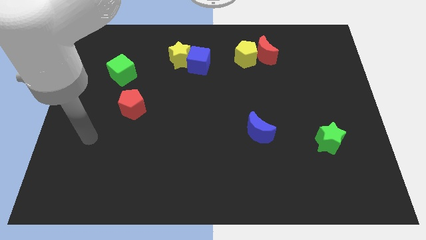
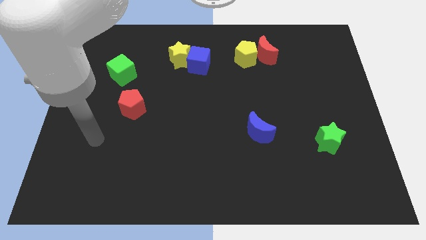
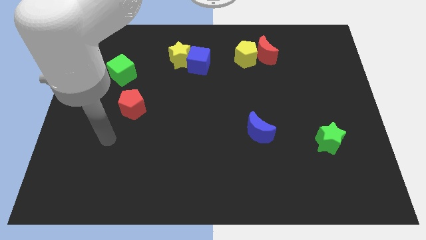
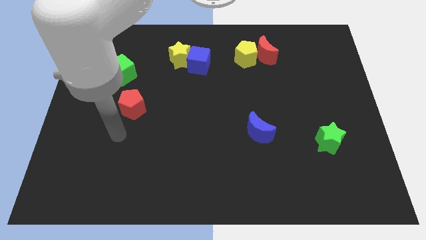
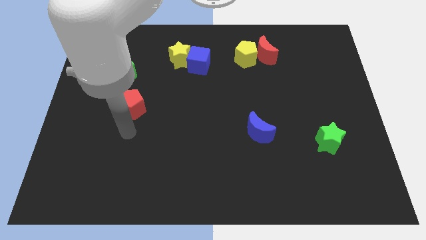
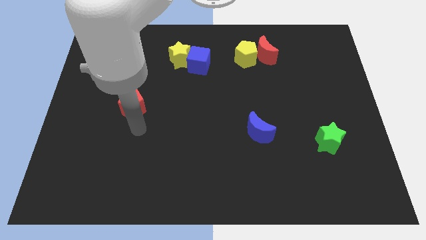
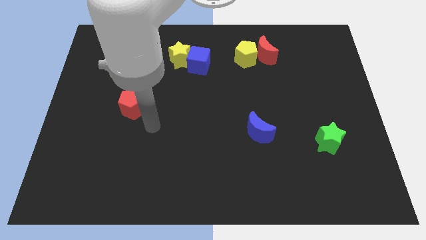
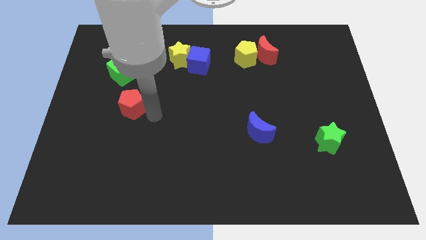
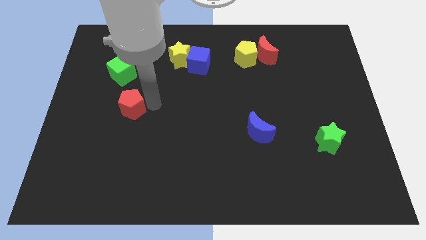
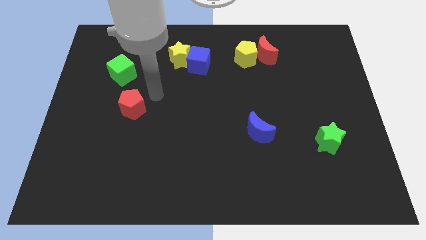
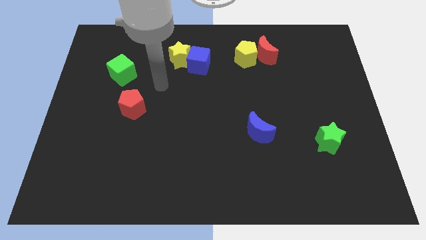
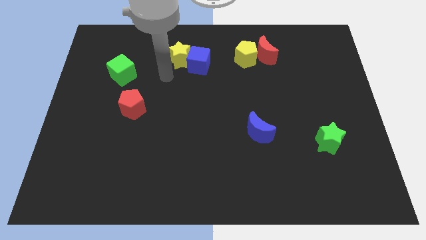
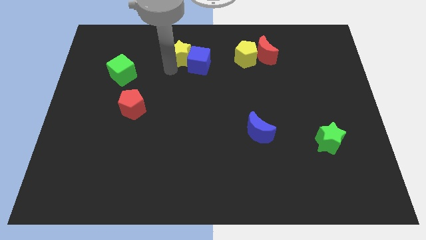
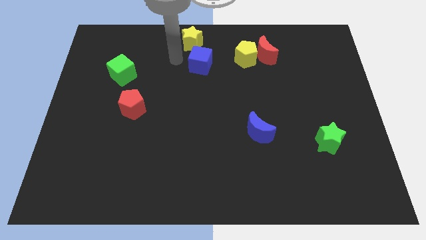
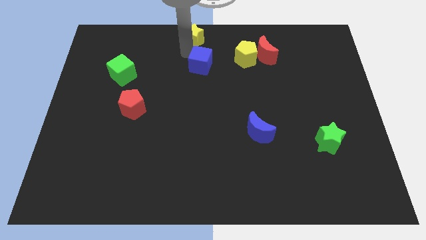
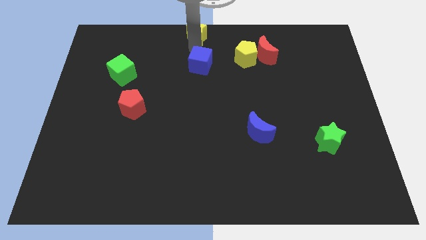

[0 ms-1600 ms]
pull the blue cube apart from the yellow star

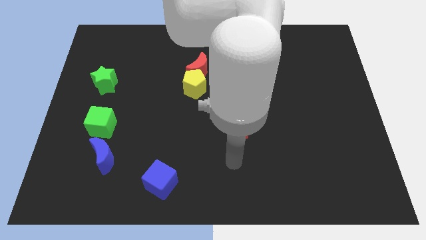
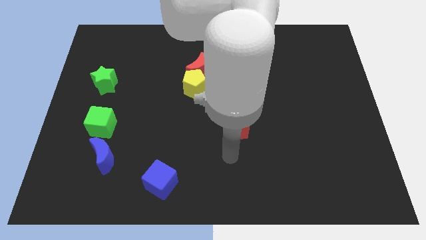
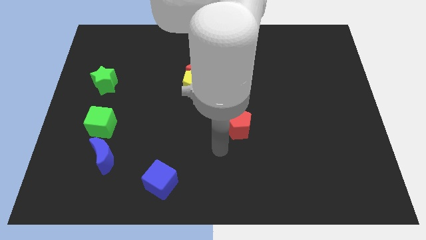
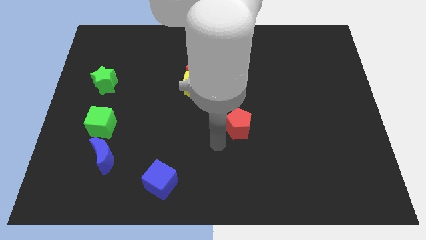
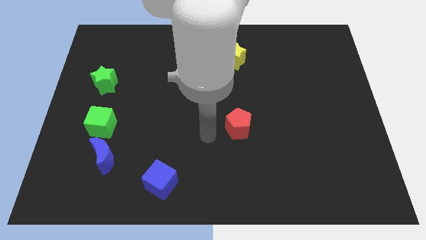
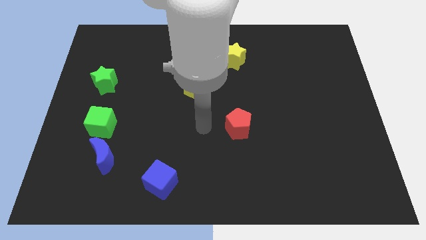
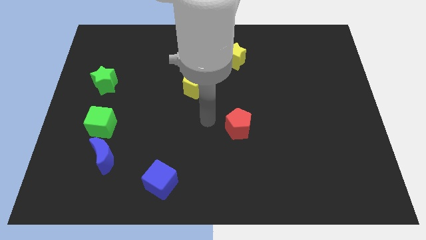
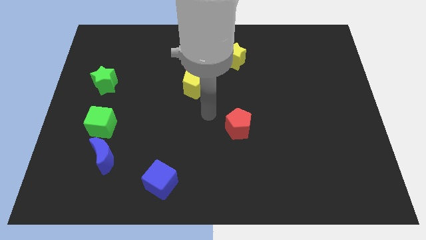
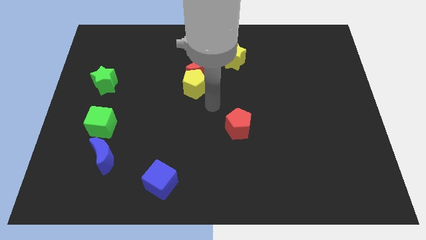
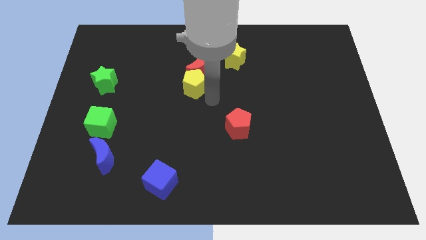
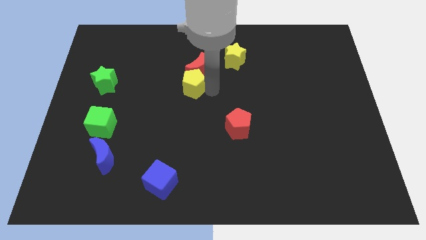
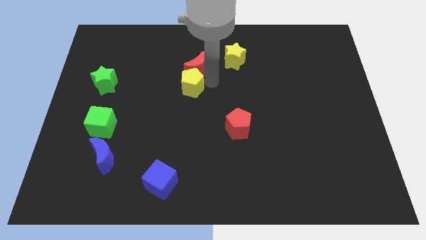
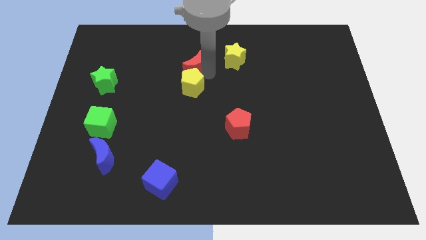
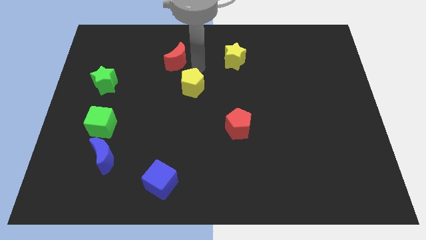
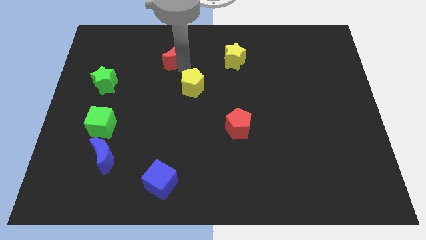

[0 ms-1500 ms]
separate the yellow pentagon from the red moon

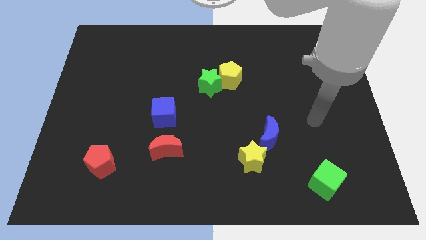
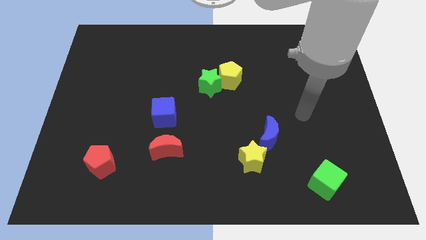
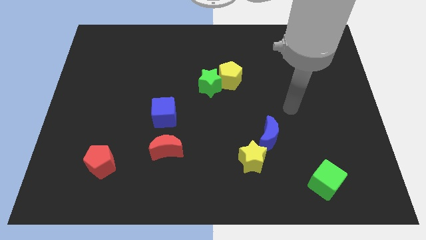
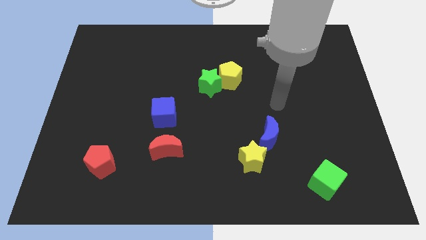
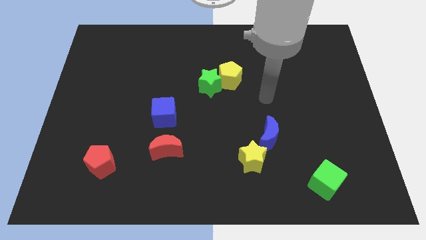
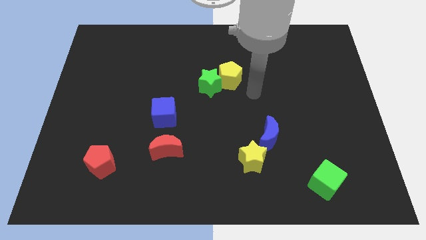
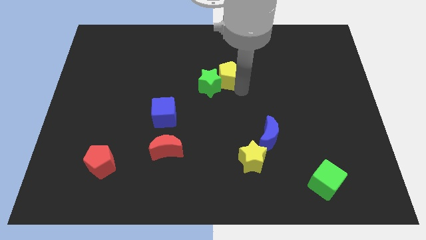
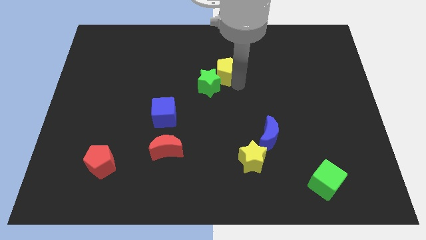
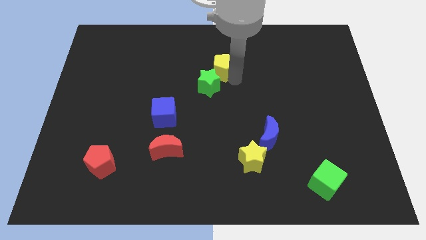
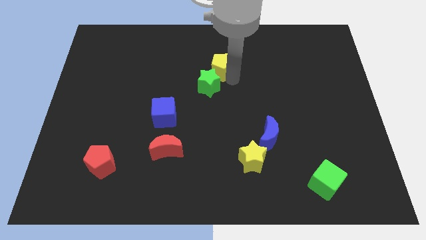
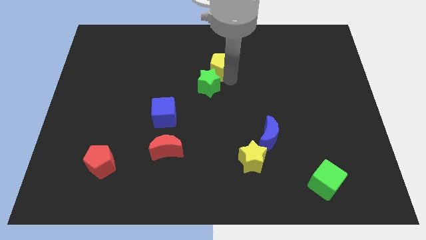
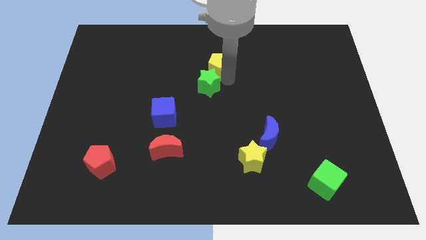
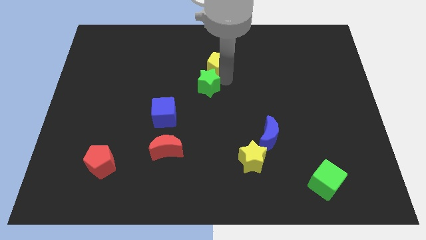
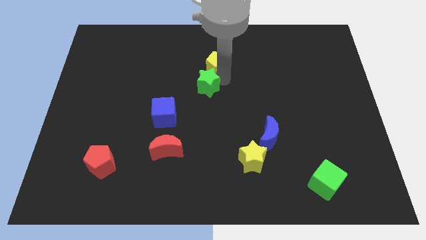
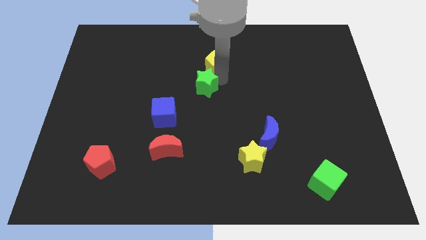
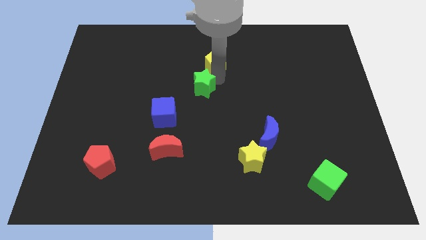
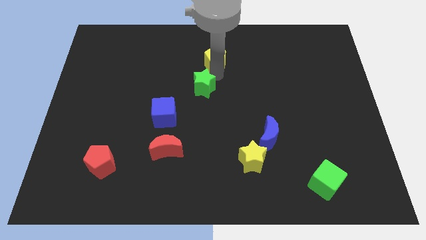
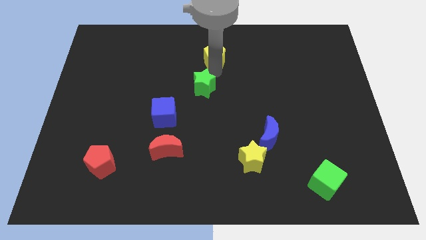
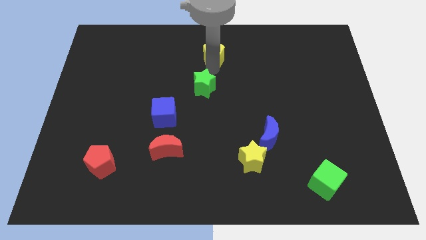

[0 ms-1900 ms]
move the green star away from the yellow pentagon

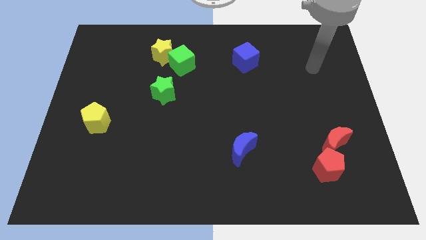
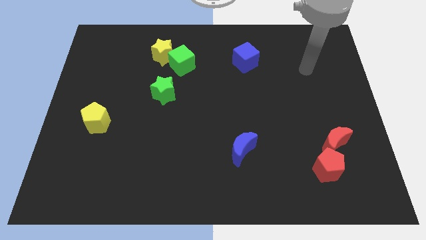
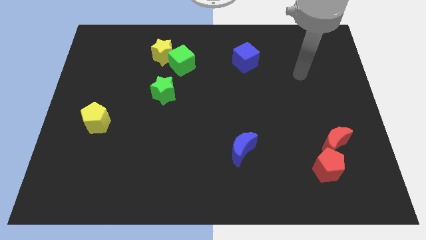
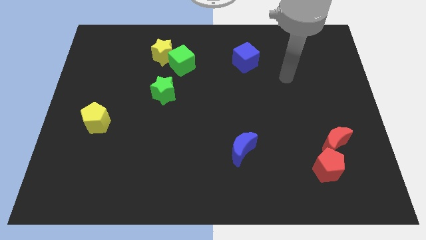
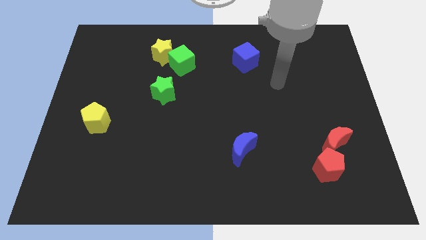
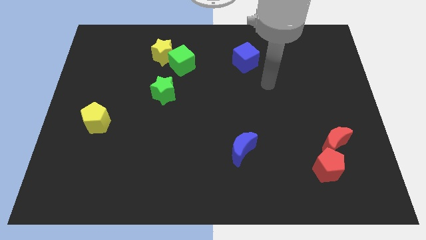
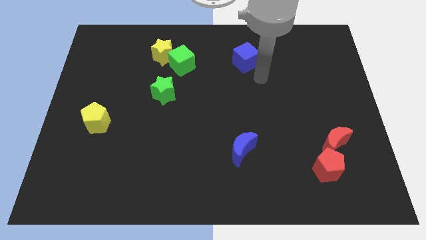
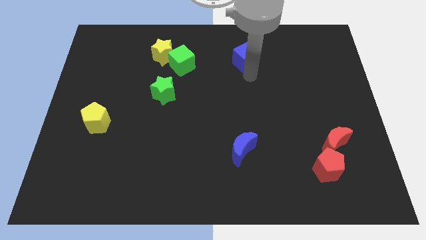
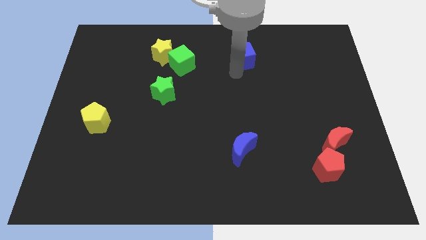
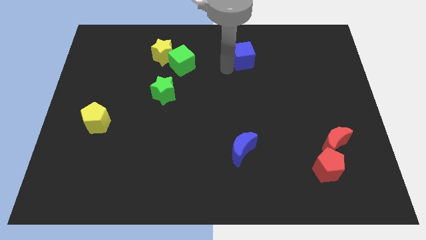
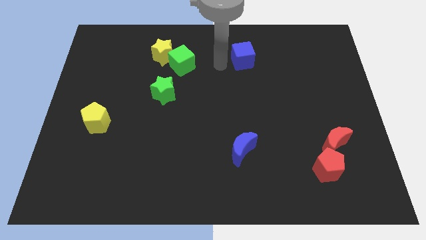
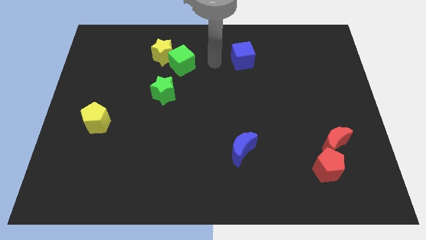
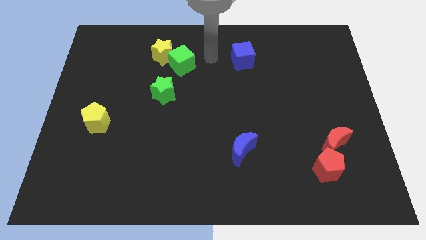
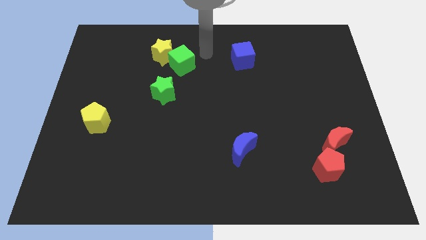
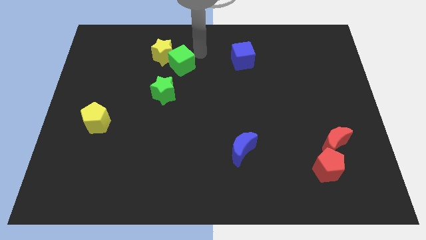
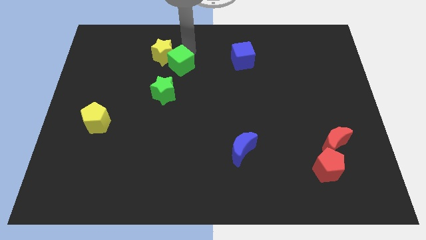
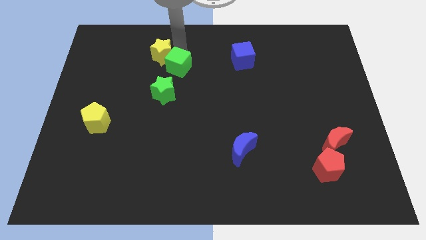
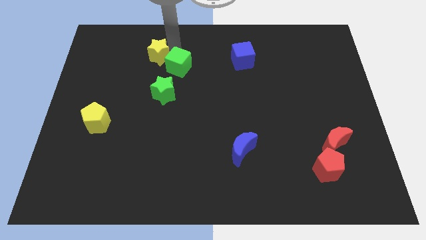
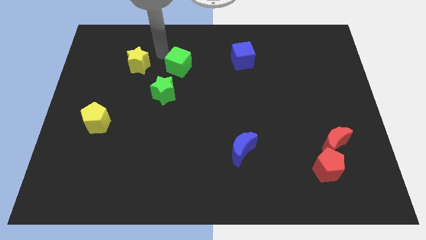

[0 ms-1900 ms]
separate the green cube from the yellow star

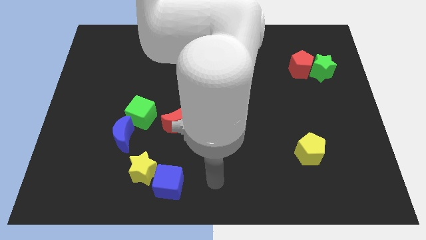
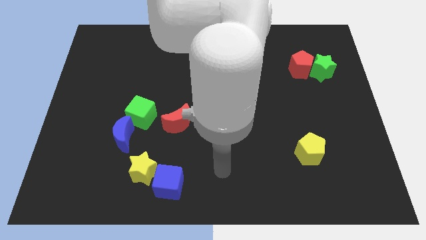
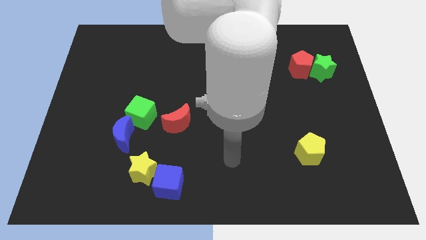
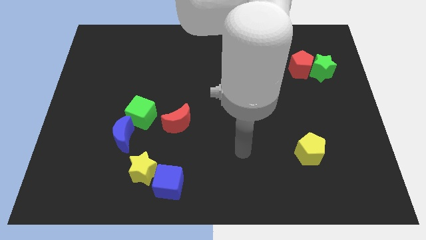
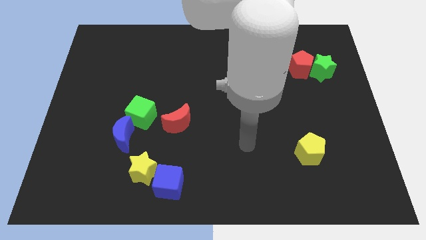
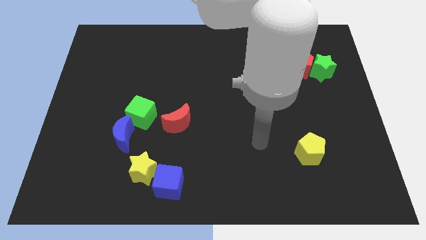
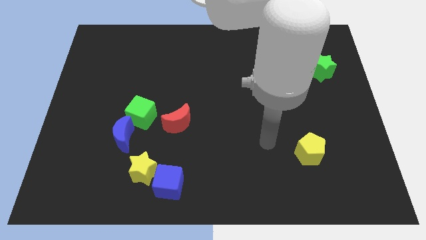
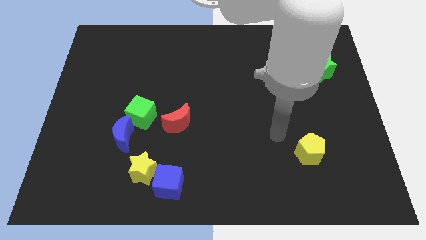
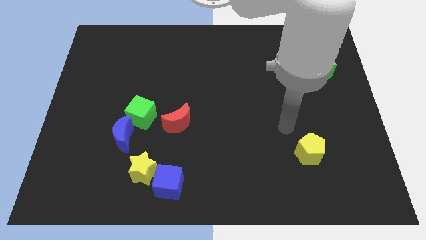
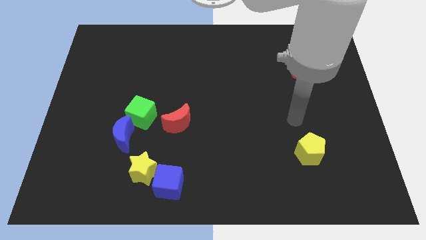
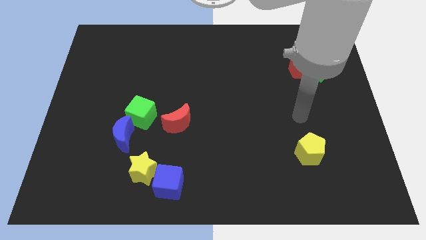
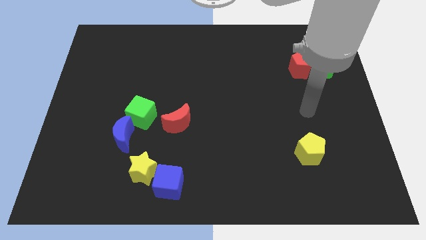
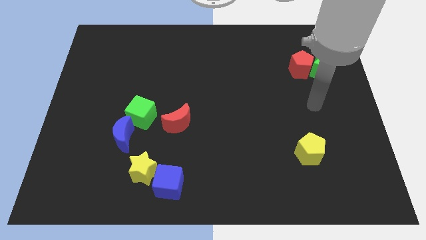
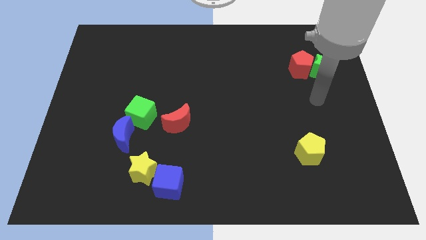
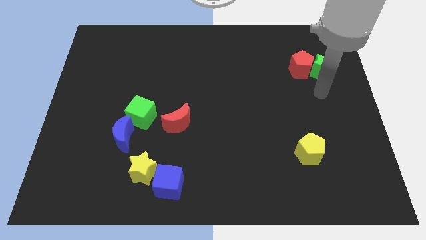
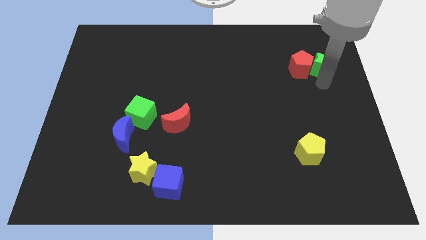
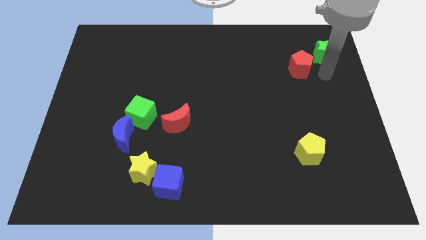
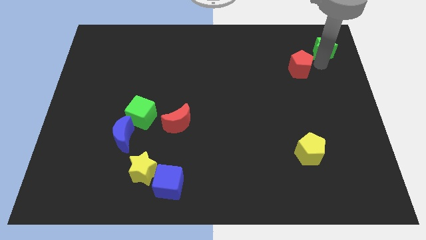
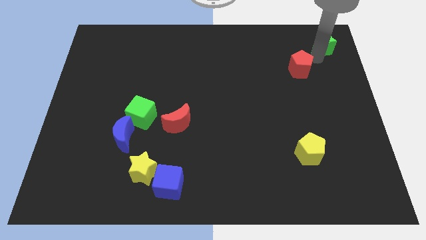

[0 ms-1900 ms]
pull the red pentagon apart from the green star

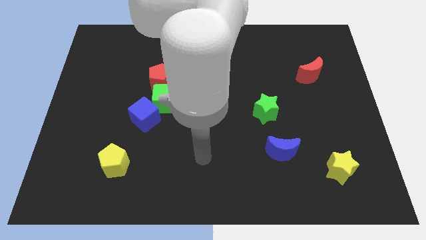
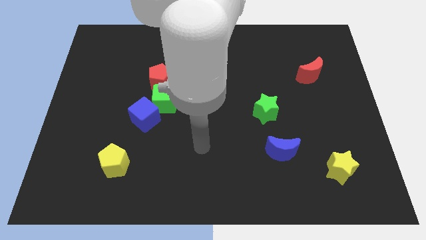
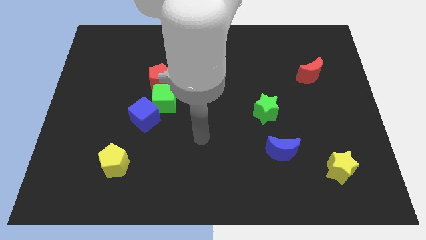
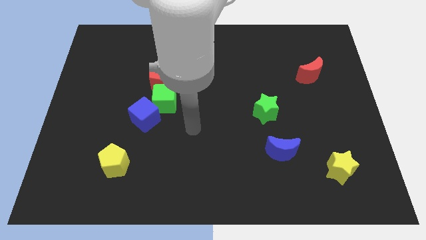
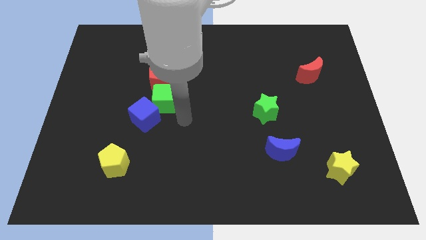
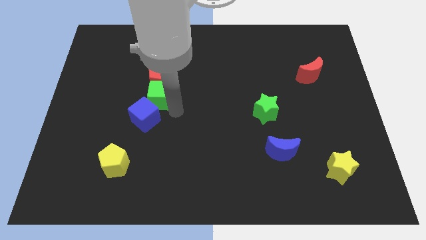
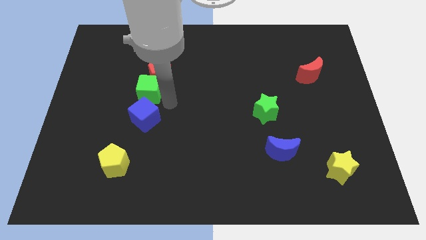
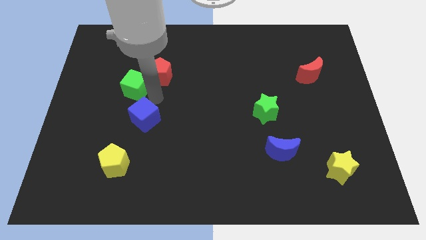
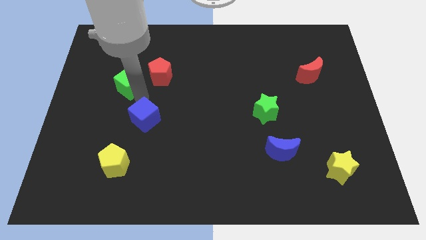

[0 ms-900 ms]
move the blue cube away from the green cube
